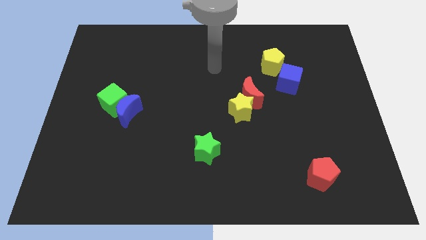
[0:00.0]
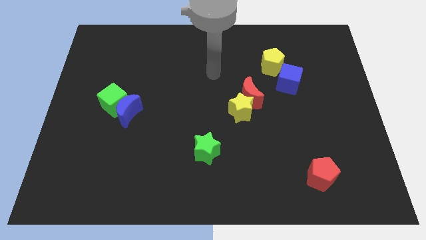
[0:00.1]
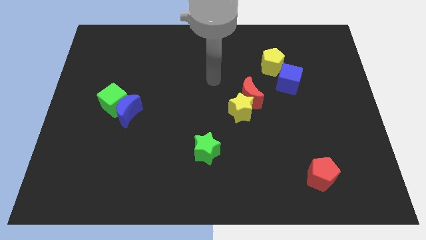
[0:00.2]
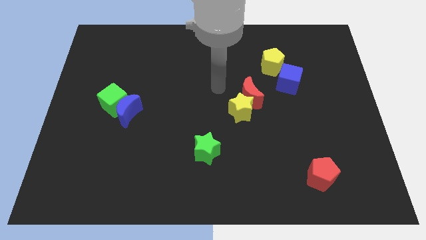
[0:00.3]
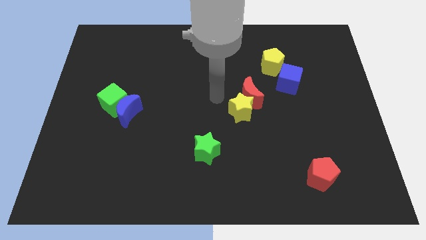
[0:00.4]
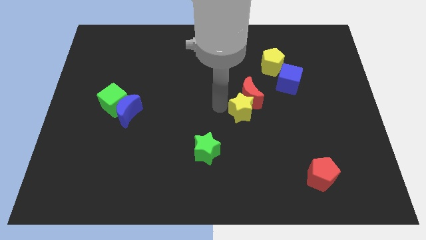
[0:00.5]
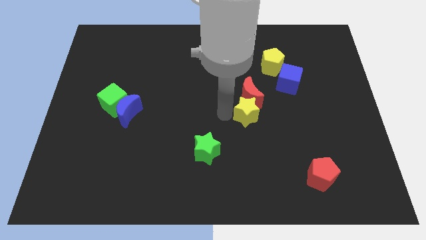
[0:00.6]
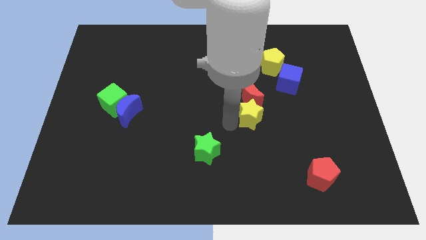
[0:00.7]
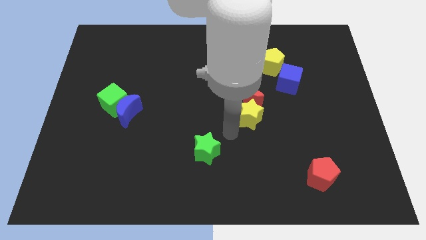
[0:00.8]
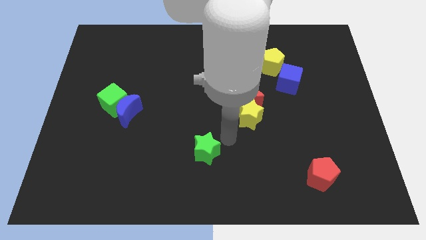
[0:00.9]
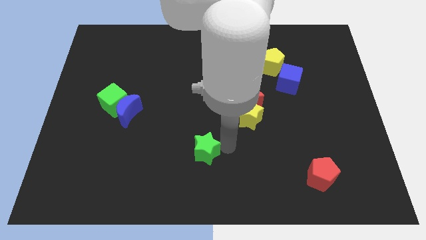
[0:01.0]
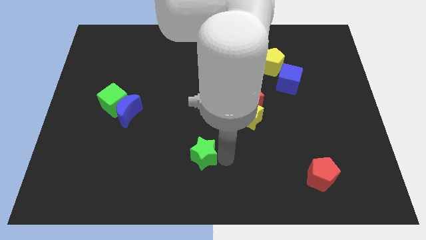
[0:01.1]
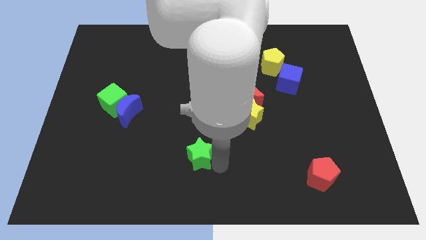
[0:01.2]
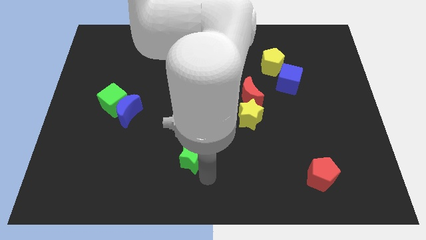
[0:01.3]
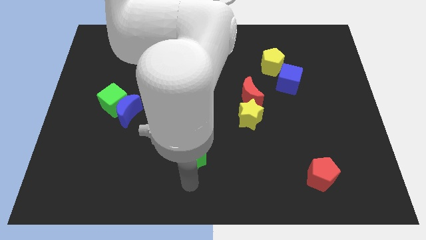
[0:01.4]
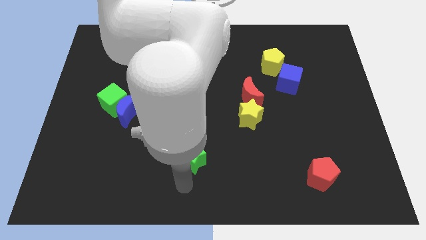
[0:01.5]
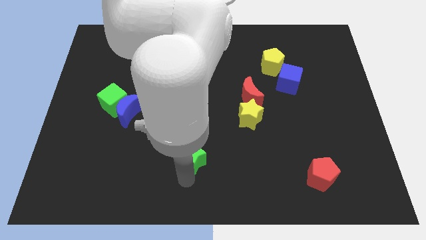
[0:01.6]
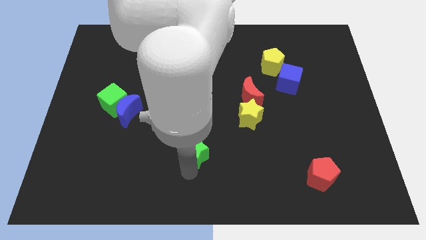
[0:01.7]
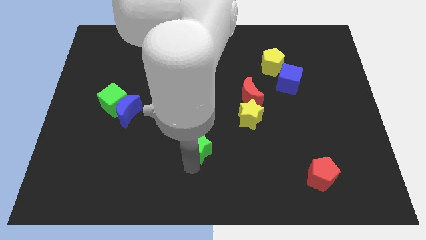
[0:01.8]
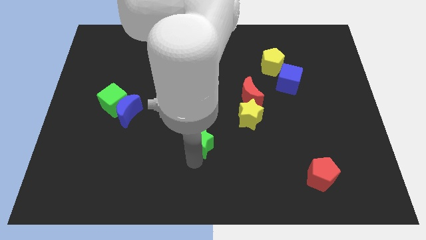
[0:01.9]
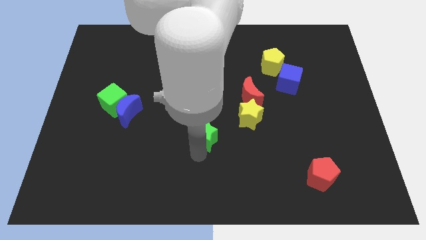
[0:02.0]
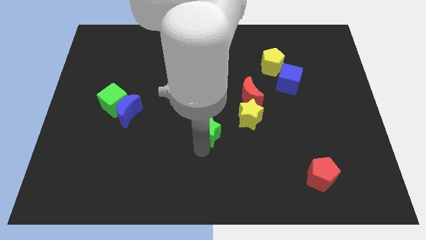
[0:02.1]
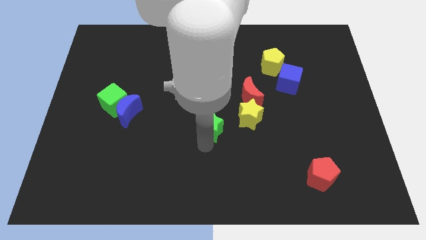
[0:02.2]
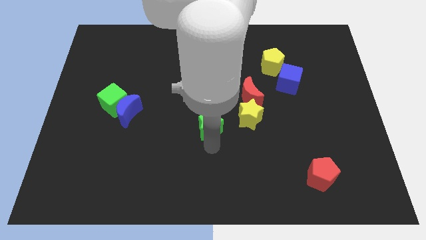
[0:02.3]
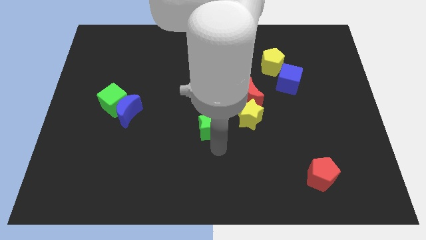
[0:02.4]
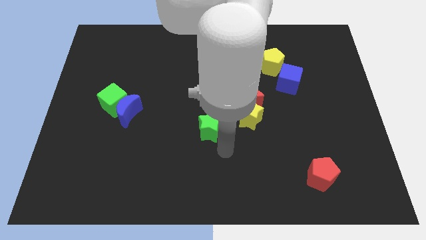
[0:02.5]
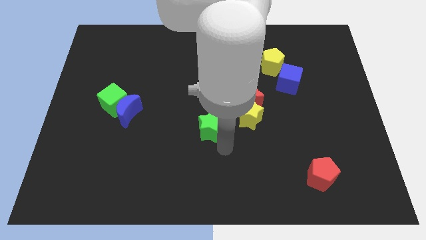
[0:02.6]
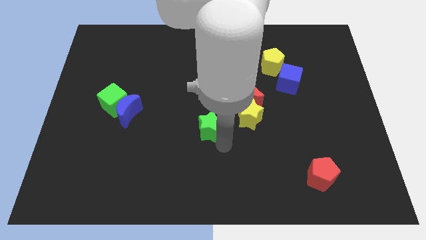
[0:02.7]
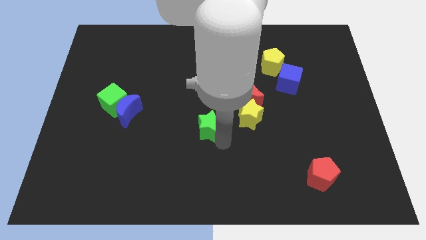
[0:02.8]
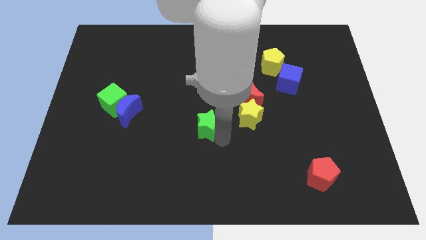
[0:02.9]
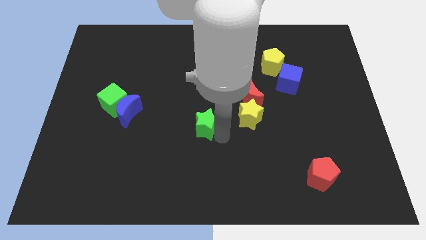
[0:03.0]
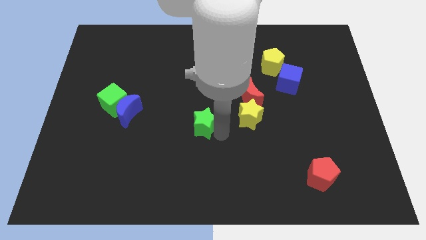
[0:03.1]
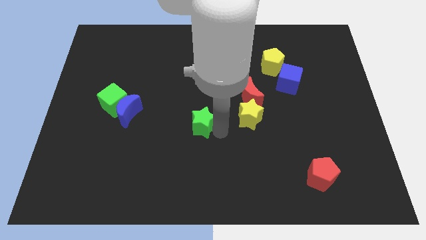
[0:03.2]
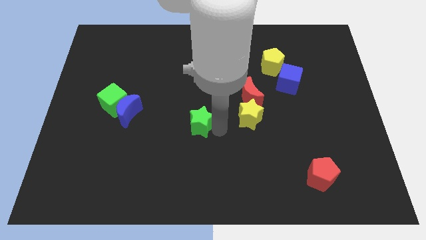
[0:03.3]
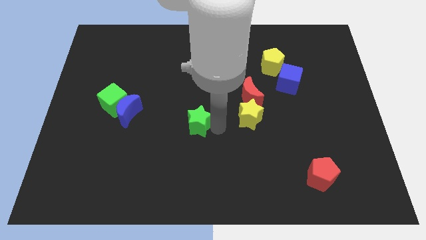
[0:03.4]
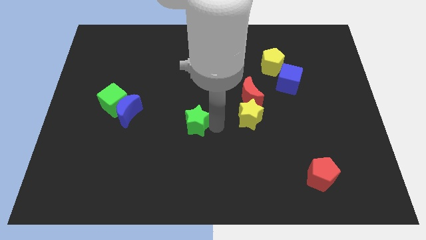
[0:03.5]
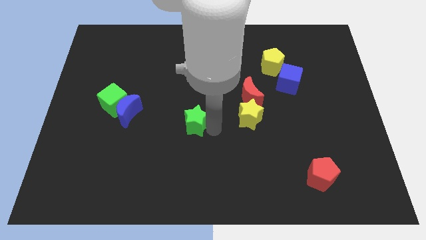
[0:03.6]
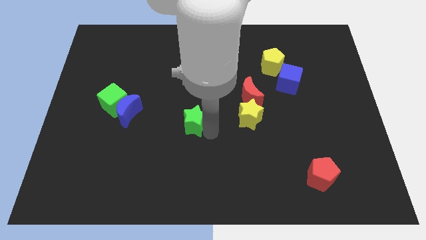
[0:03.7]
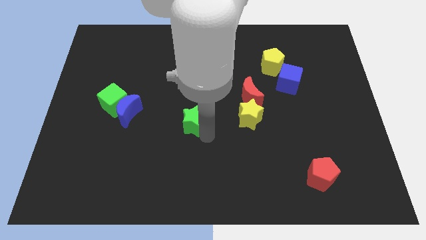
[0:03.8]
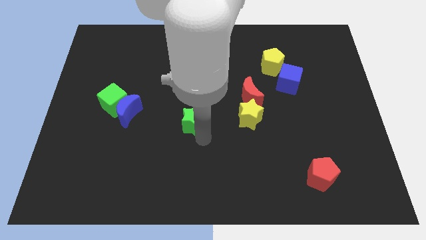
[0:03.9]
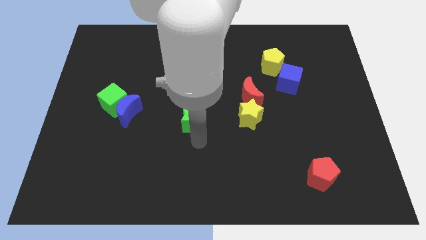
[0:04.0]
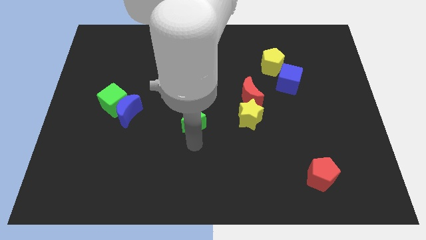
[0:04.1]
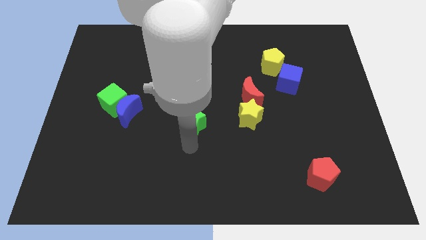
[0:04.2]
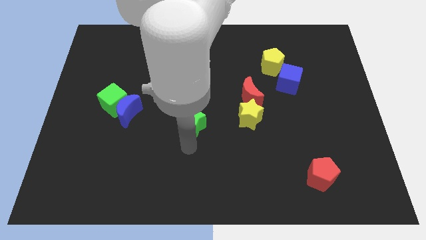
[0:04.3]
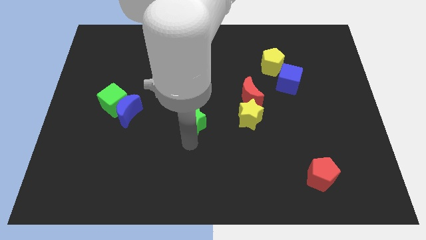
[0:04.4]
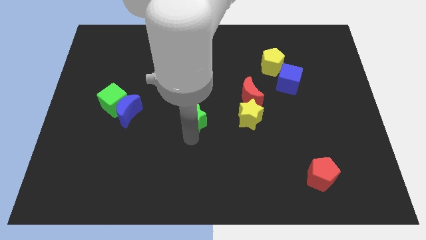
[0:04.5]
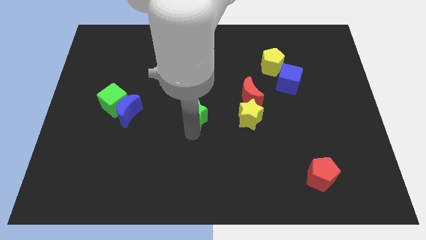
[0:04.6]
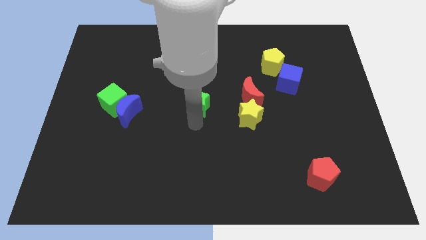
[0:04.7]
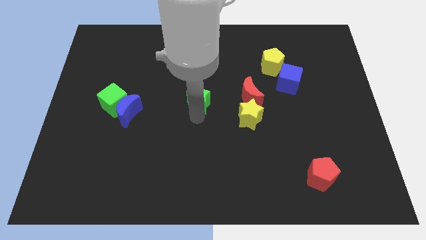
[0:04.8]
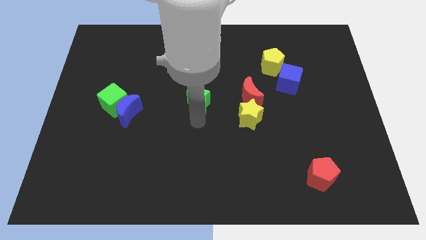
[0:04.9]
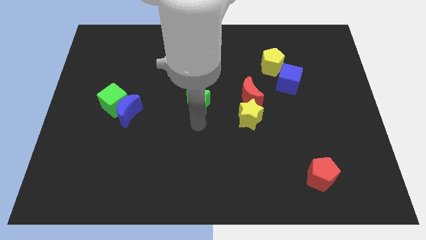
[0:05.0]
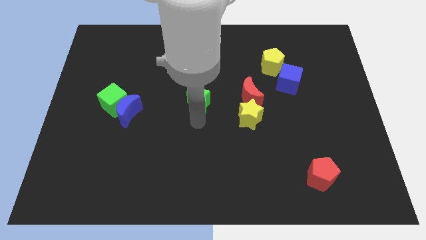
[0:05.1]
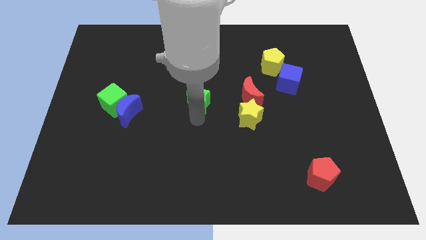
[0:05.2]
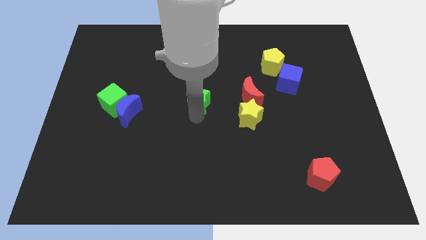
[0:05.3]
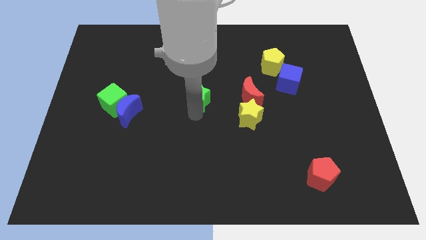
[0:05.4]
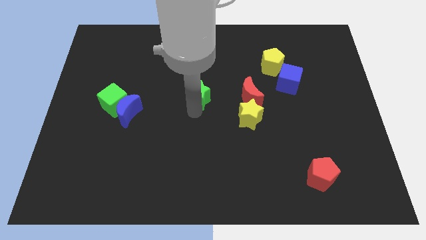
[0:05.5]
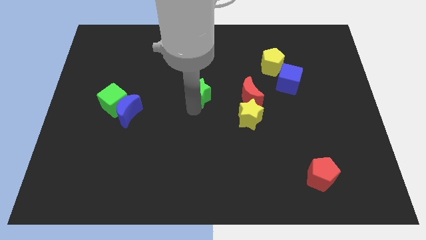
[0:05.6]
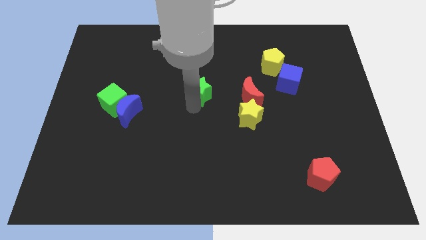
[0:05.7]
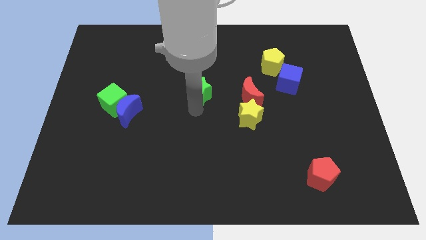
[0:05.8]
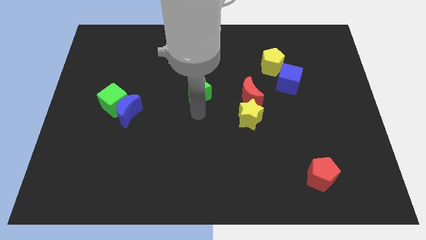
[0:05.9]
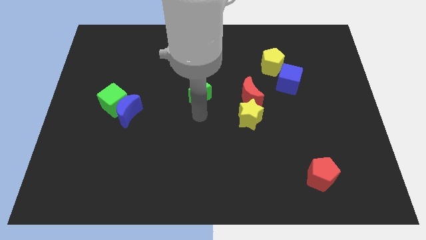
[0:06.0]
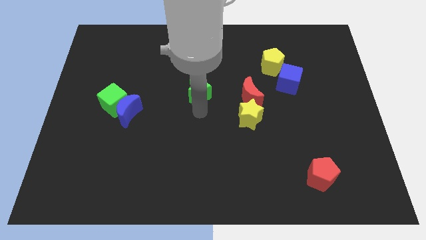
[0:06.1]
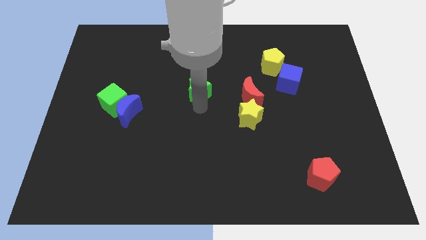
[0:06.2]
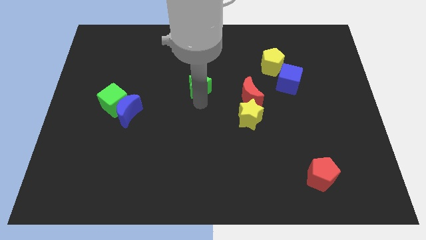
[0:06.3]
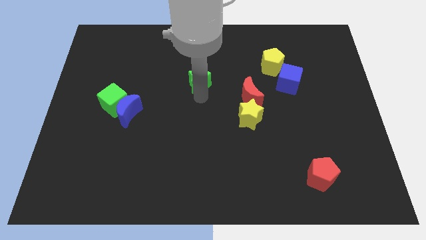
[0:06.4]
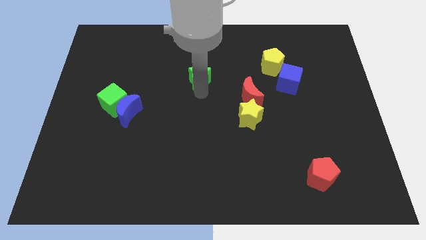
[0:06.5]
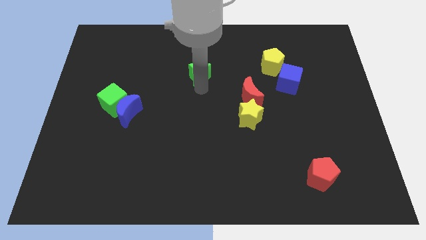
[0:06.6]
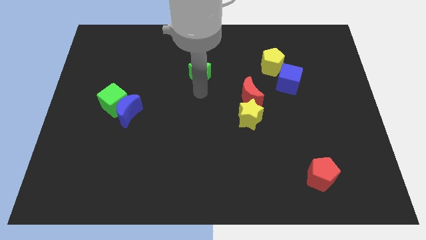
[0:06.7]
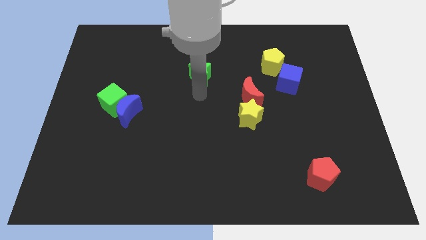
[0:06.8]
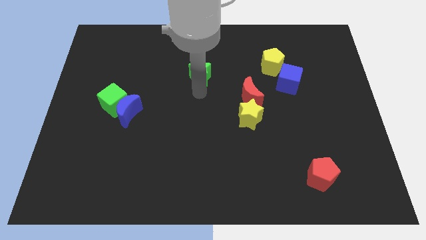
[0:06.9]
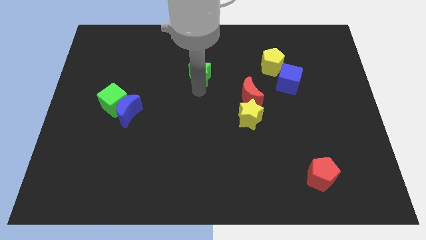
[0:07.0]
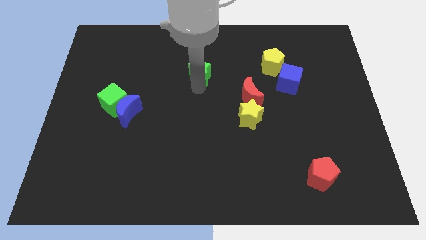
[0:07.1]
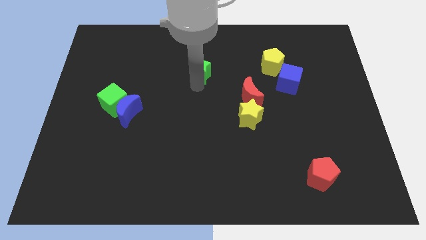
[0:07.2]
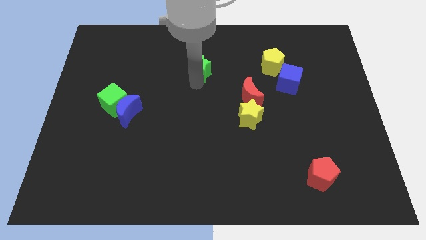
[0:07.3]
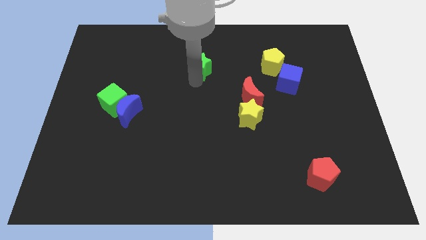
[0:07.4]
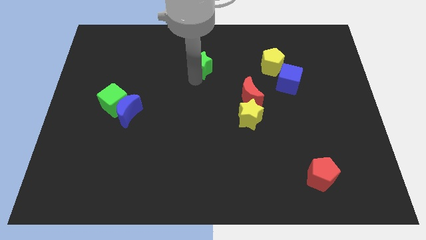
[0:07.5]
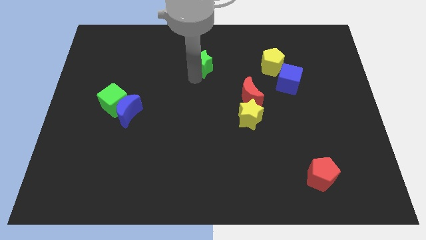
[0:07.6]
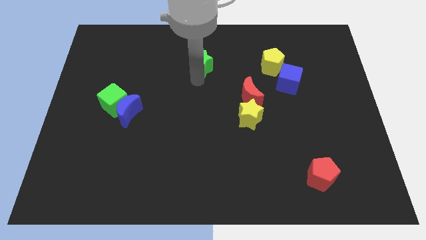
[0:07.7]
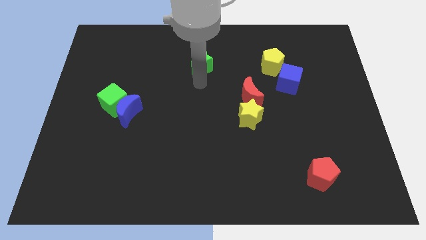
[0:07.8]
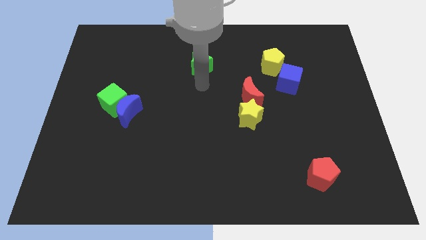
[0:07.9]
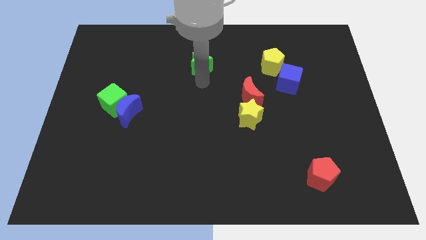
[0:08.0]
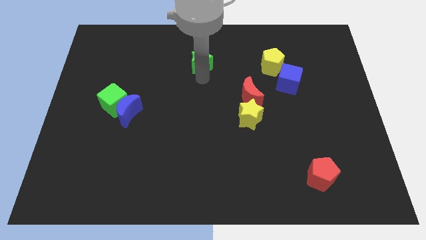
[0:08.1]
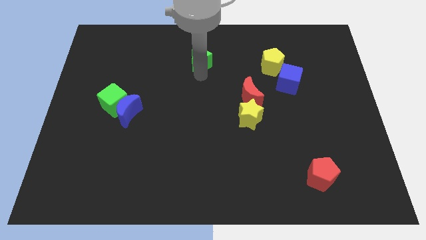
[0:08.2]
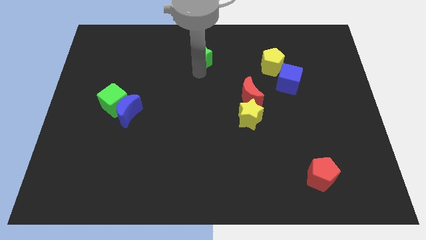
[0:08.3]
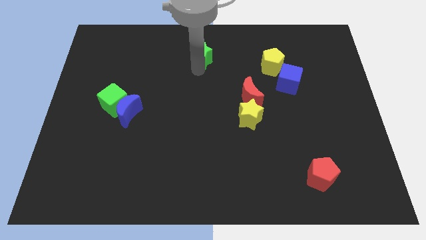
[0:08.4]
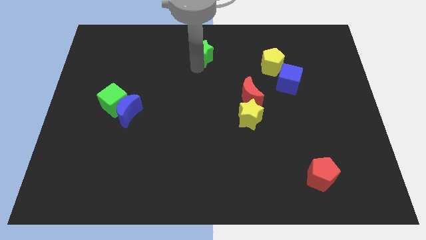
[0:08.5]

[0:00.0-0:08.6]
push the green star to the top side
